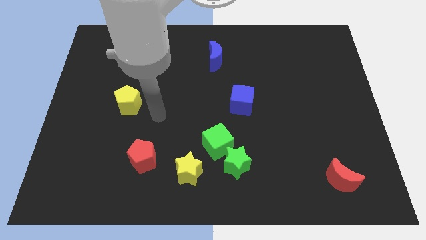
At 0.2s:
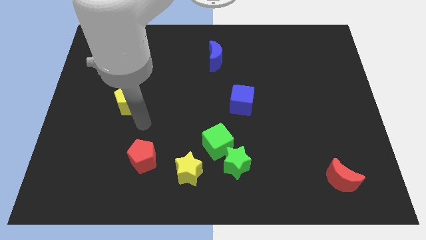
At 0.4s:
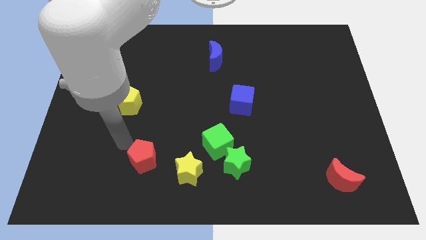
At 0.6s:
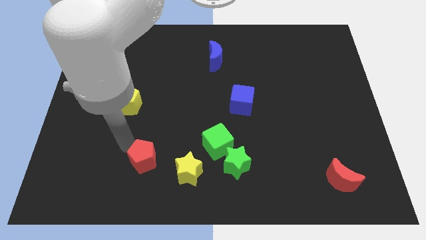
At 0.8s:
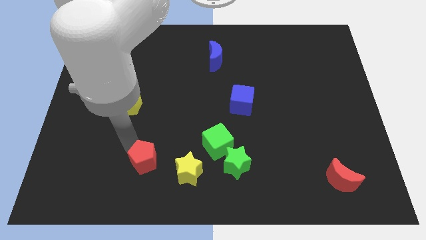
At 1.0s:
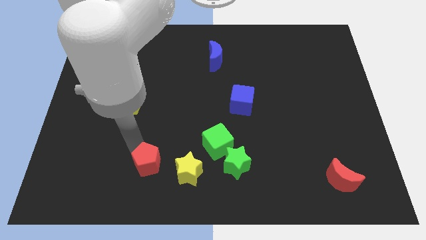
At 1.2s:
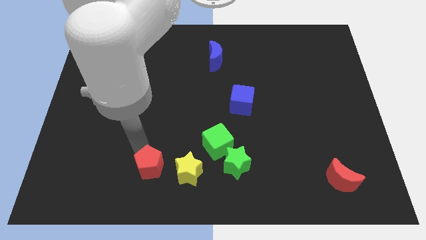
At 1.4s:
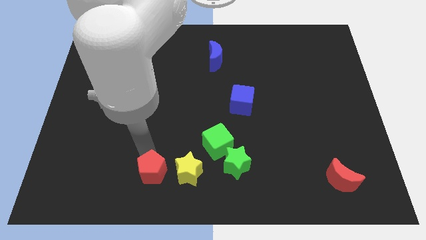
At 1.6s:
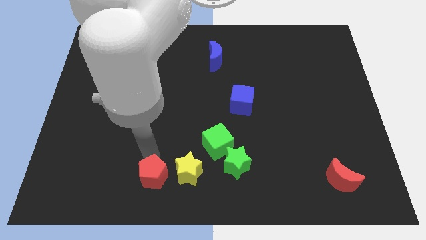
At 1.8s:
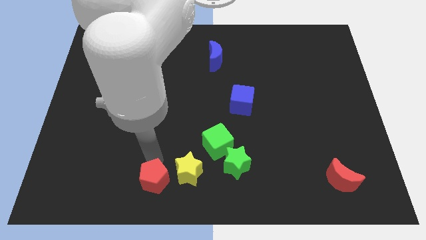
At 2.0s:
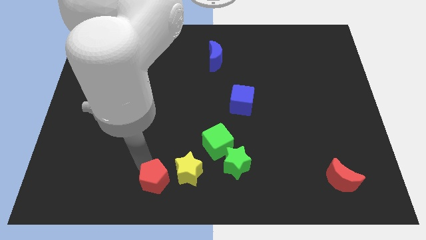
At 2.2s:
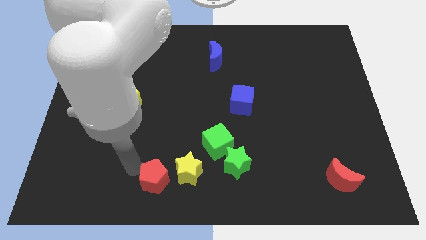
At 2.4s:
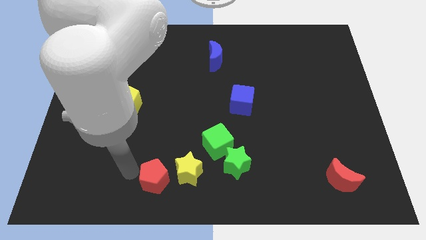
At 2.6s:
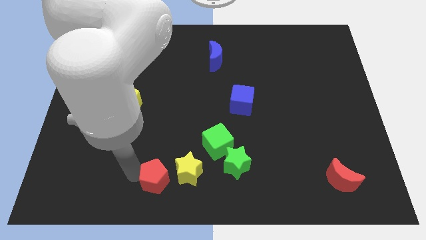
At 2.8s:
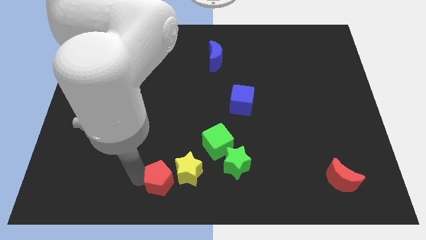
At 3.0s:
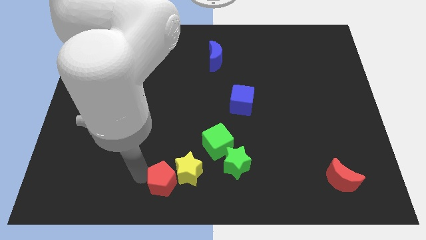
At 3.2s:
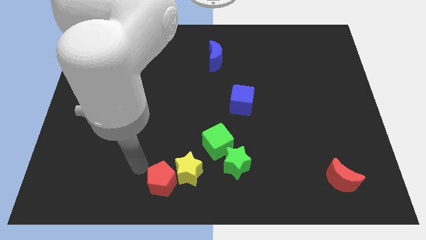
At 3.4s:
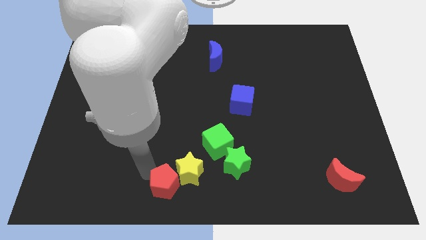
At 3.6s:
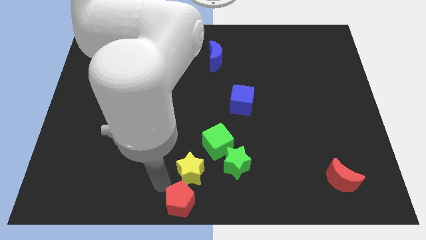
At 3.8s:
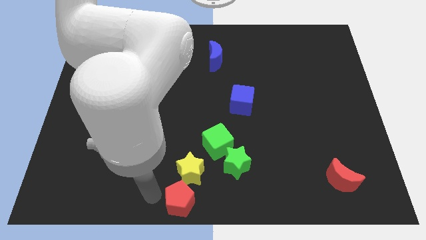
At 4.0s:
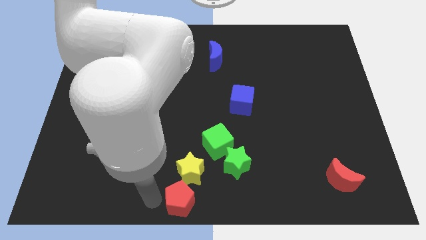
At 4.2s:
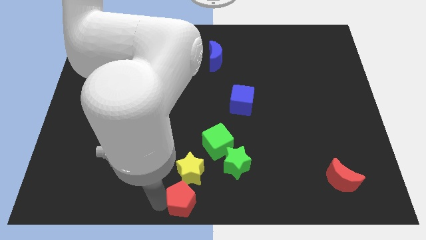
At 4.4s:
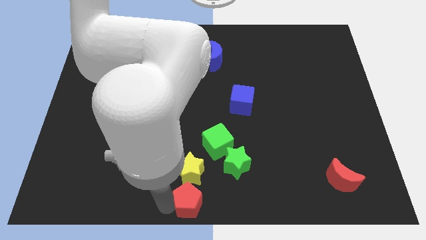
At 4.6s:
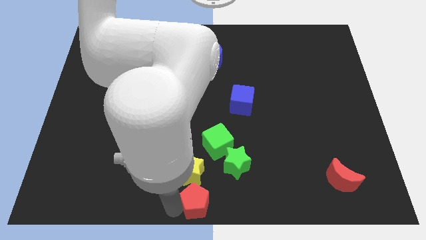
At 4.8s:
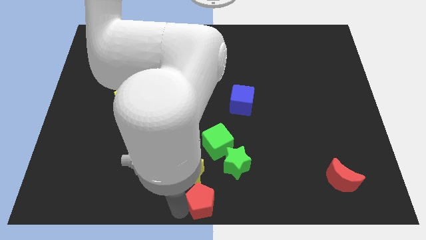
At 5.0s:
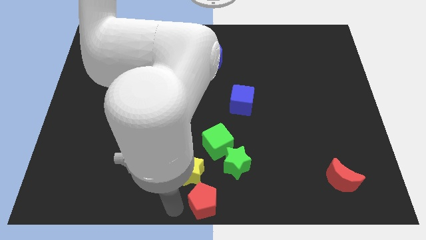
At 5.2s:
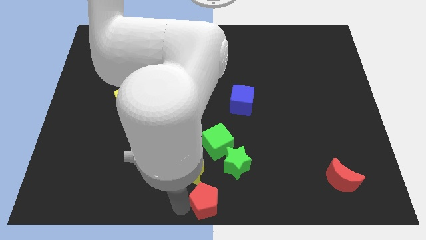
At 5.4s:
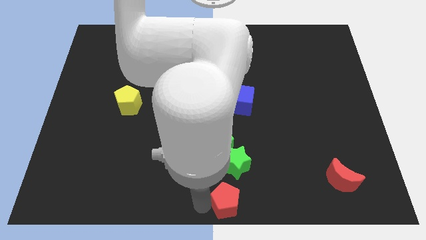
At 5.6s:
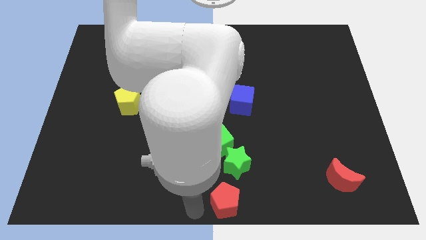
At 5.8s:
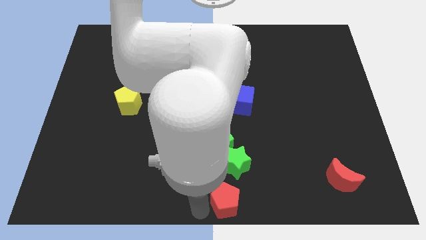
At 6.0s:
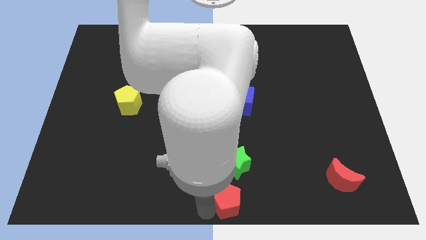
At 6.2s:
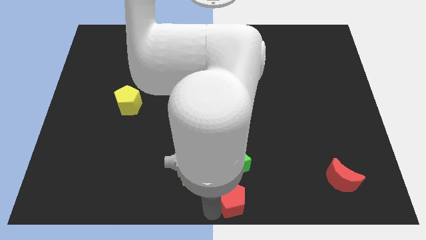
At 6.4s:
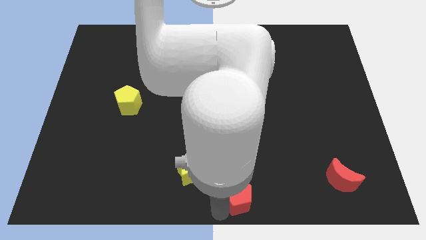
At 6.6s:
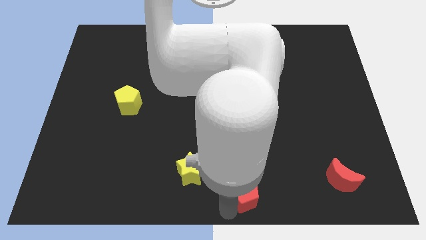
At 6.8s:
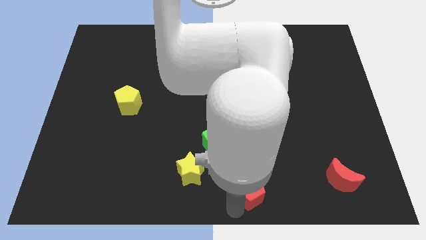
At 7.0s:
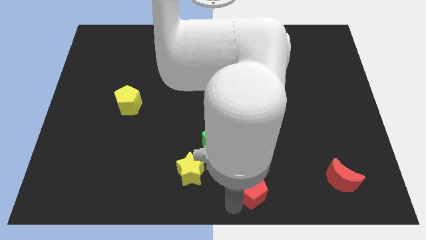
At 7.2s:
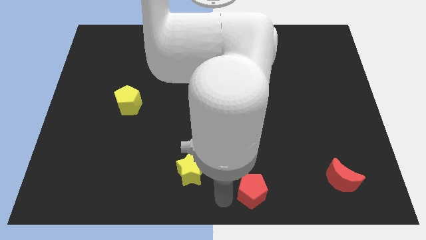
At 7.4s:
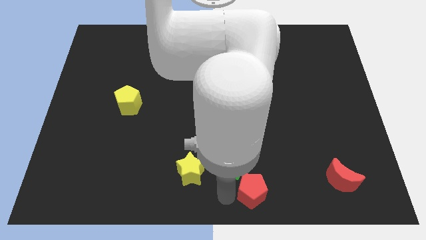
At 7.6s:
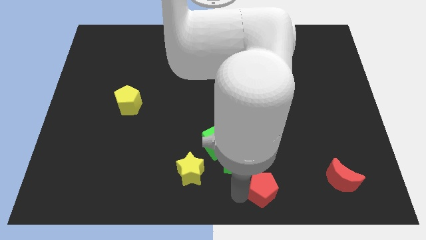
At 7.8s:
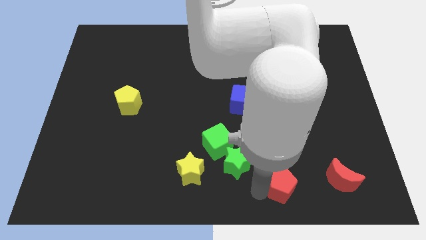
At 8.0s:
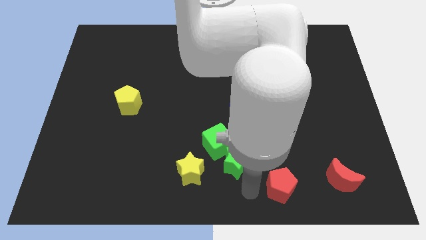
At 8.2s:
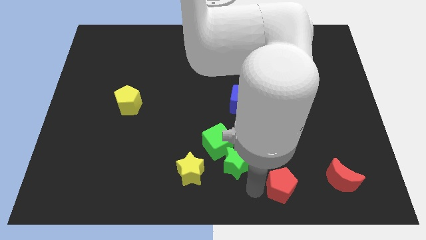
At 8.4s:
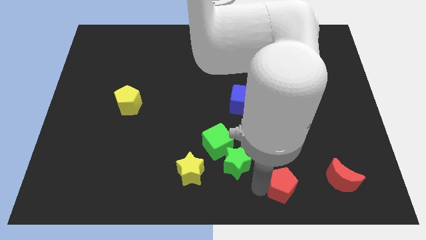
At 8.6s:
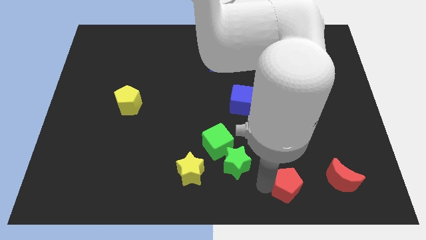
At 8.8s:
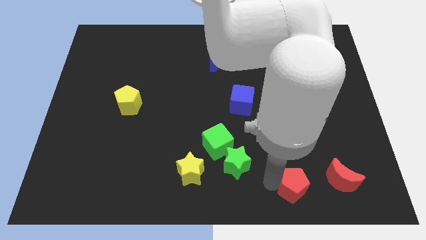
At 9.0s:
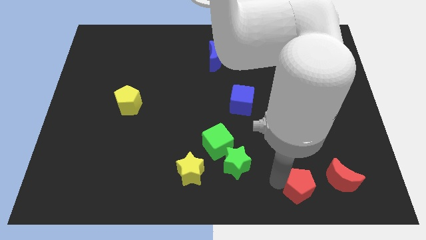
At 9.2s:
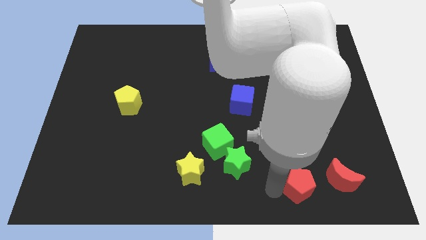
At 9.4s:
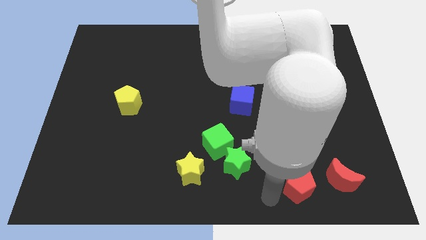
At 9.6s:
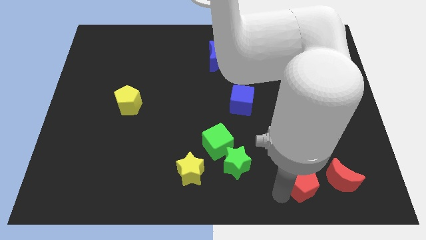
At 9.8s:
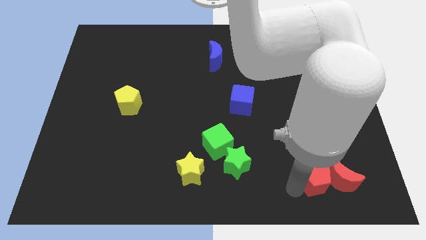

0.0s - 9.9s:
slide the red pentagon to the red moon

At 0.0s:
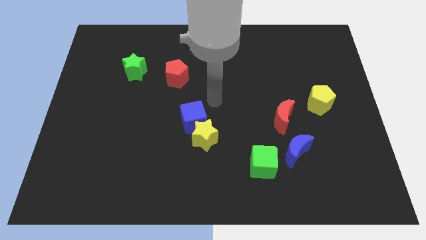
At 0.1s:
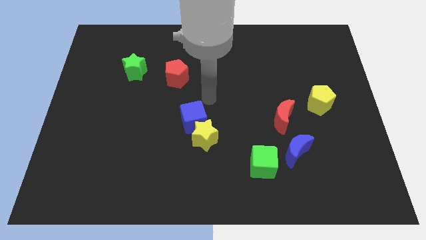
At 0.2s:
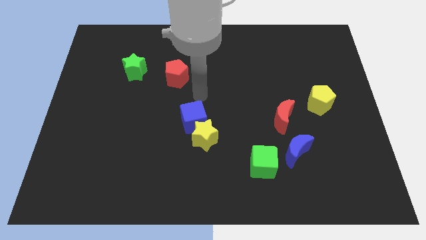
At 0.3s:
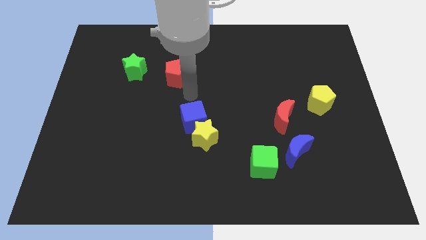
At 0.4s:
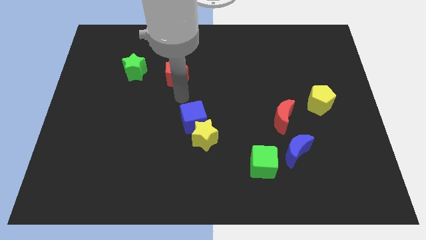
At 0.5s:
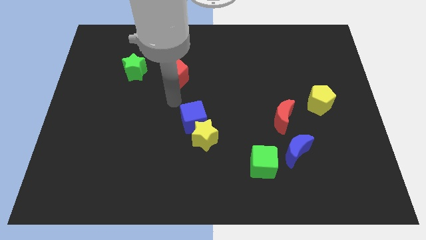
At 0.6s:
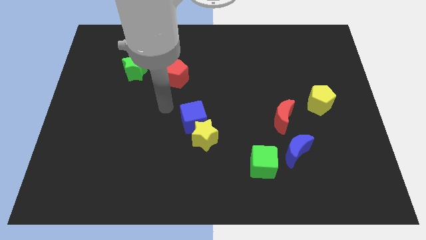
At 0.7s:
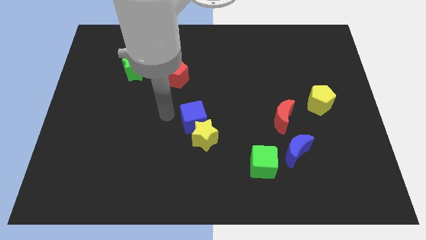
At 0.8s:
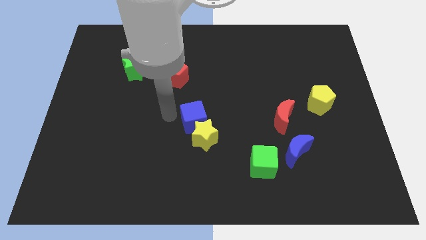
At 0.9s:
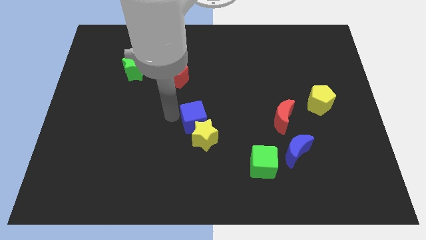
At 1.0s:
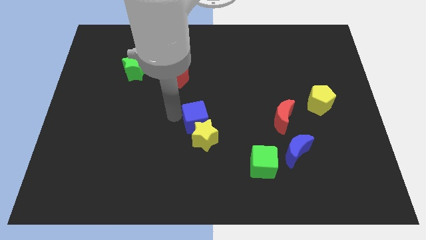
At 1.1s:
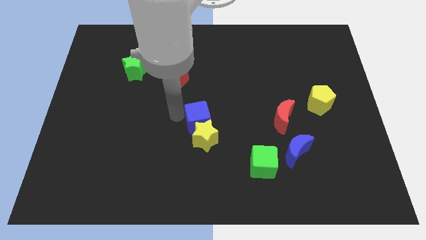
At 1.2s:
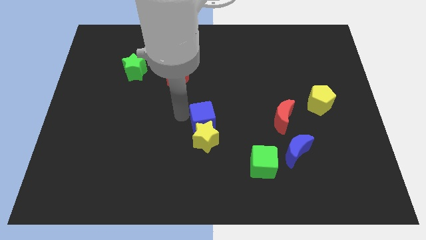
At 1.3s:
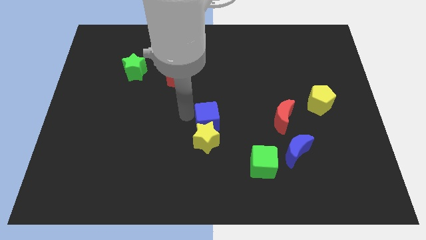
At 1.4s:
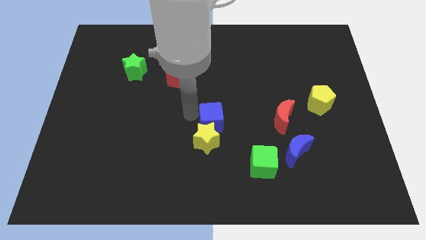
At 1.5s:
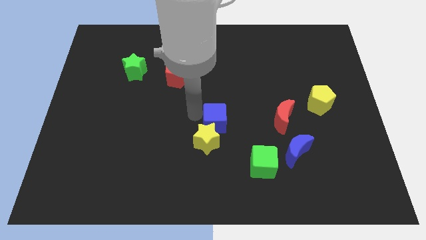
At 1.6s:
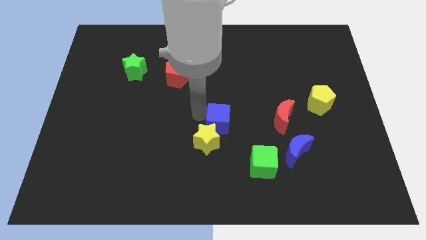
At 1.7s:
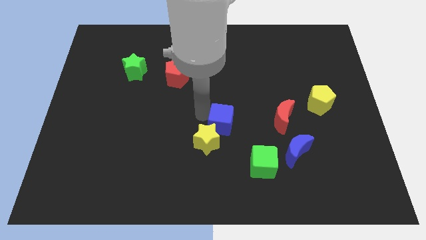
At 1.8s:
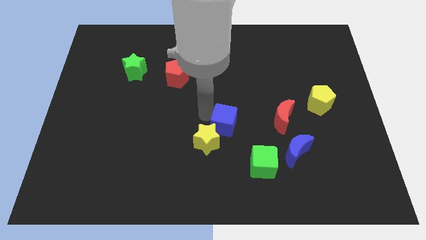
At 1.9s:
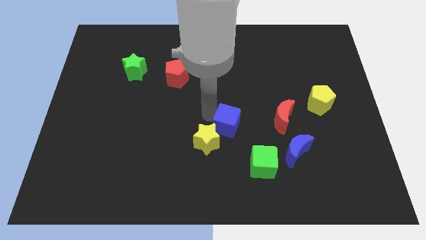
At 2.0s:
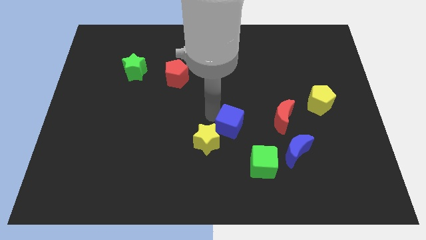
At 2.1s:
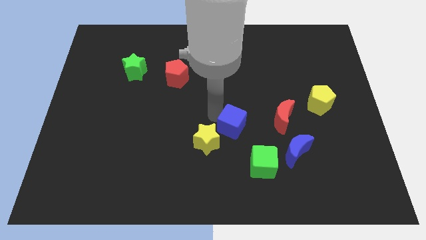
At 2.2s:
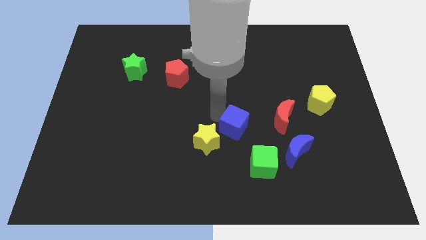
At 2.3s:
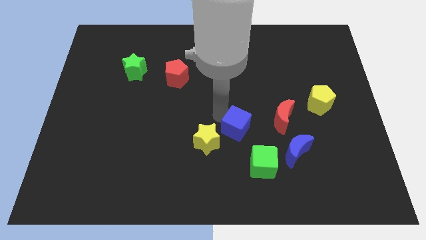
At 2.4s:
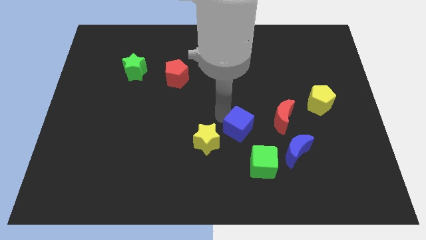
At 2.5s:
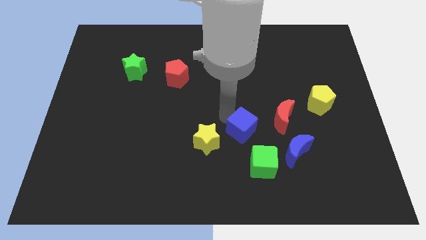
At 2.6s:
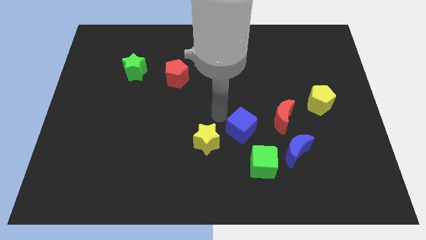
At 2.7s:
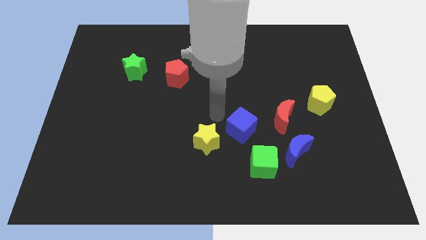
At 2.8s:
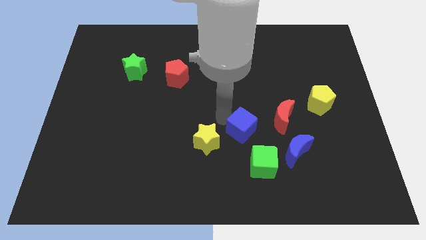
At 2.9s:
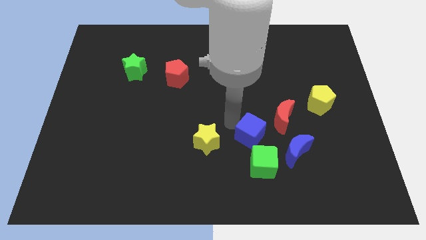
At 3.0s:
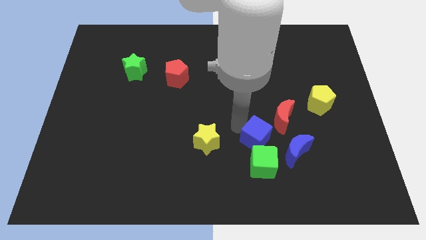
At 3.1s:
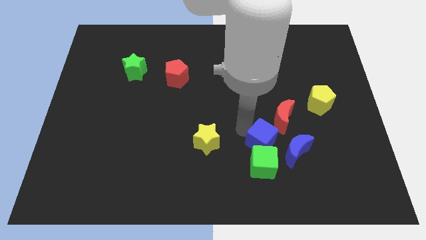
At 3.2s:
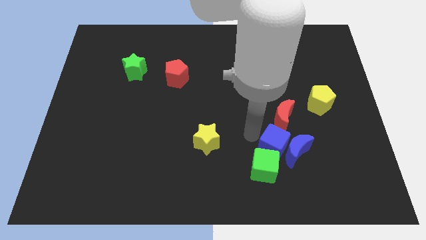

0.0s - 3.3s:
slide the blue cube next to the blue moon
